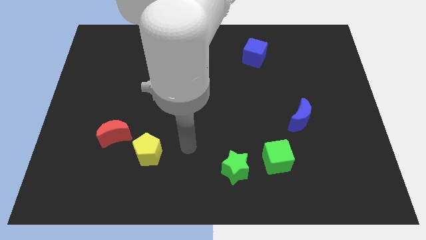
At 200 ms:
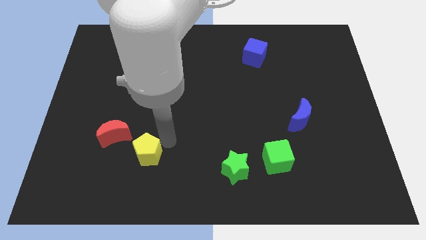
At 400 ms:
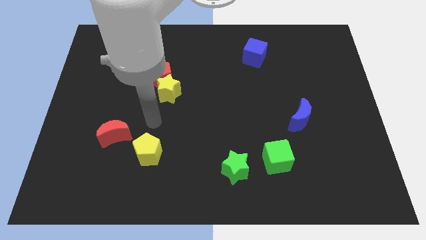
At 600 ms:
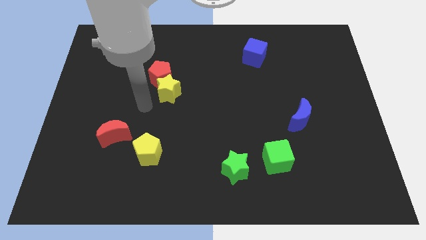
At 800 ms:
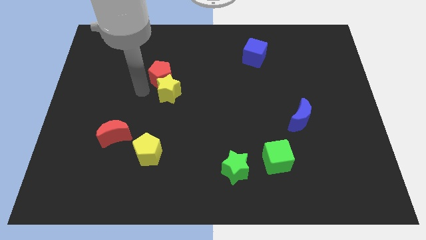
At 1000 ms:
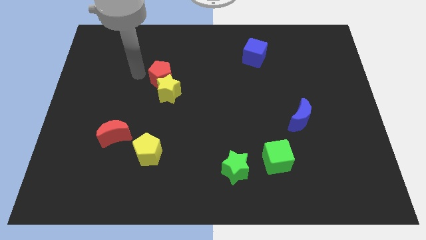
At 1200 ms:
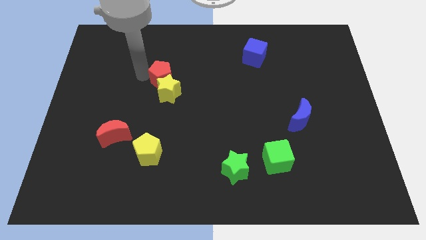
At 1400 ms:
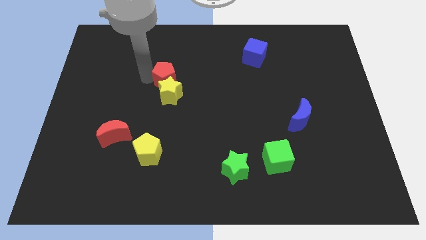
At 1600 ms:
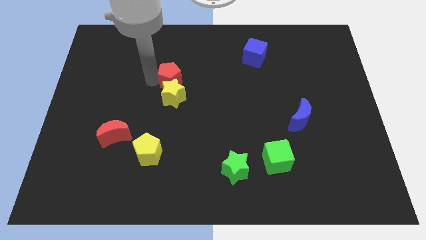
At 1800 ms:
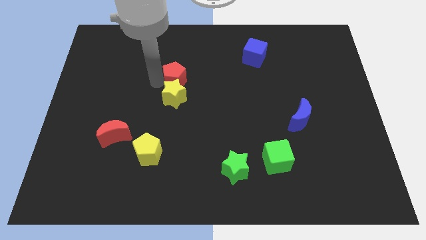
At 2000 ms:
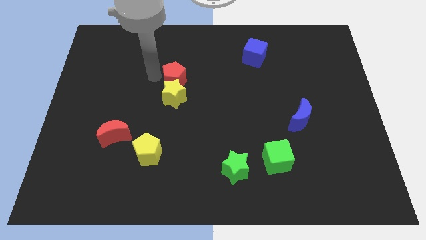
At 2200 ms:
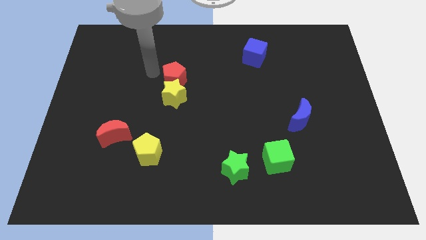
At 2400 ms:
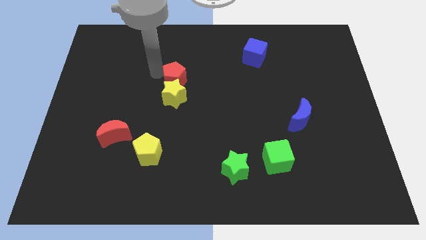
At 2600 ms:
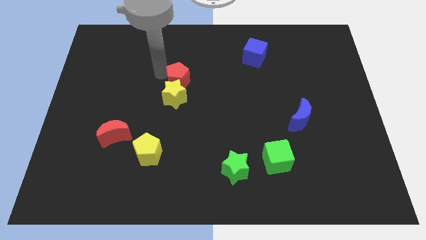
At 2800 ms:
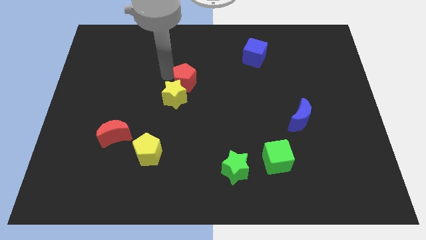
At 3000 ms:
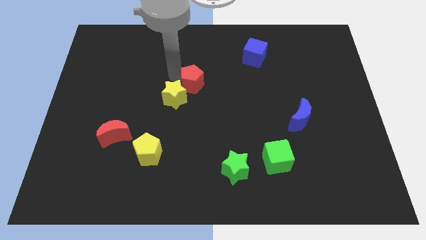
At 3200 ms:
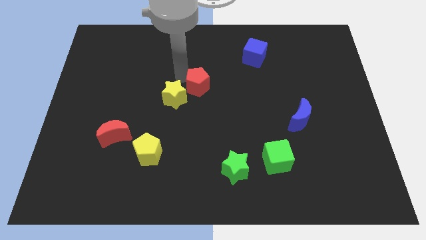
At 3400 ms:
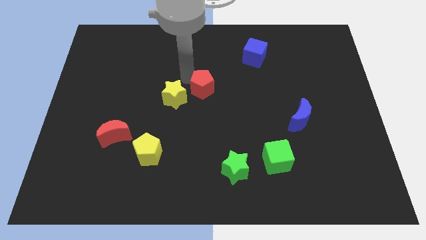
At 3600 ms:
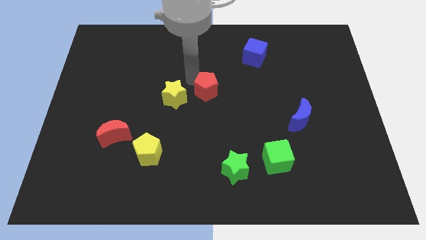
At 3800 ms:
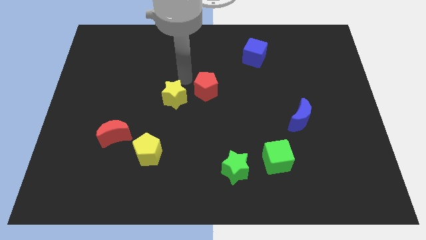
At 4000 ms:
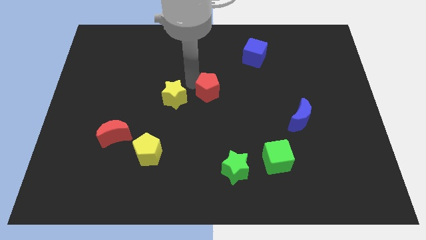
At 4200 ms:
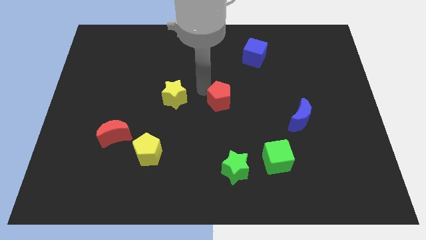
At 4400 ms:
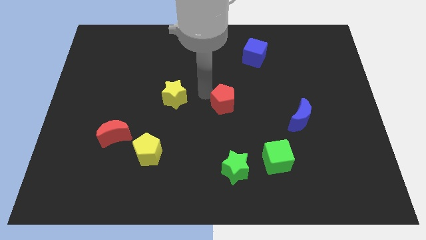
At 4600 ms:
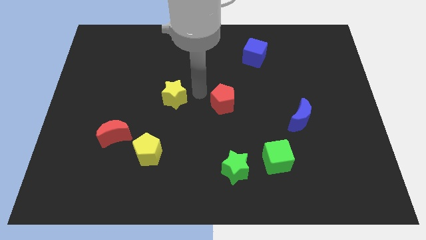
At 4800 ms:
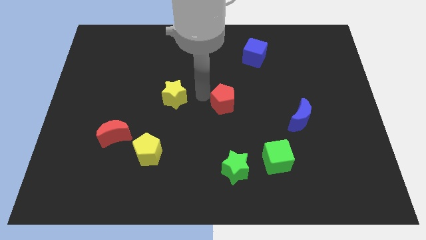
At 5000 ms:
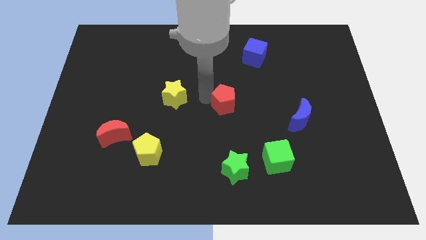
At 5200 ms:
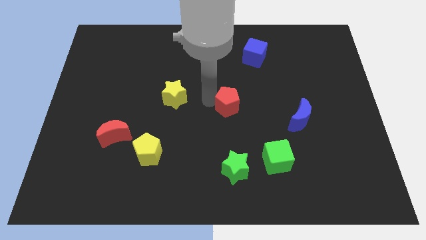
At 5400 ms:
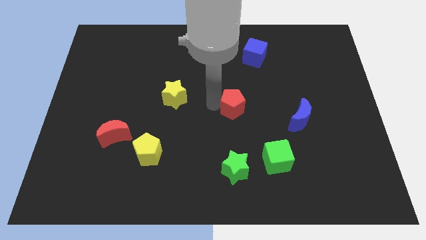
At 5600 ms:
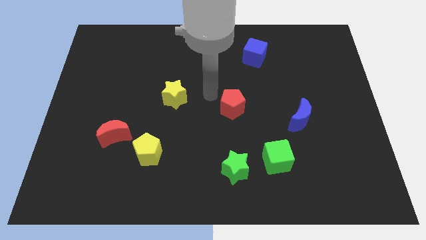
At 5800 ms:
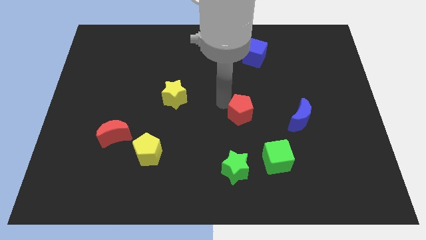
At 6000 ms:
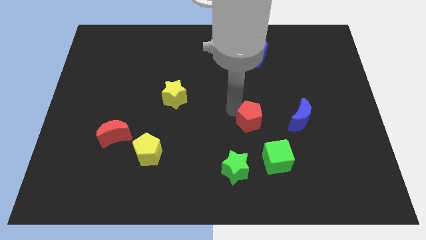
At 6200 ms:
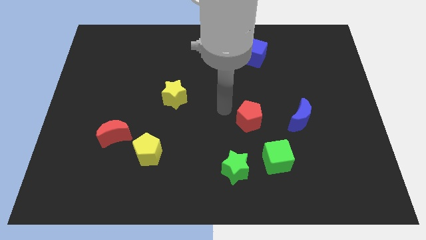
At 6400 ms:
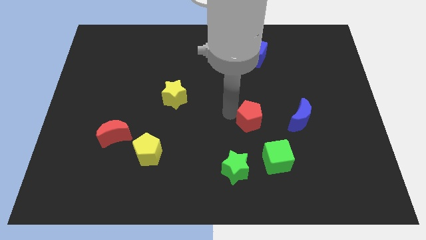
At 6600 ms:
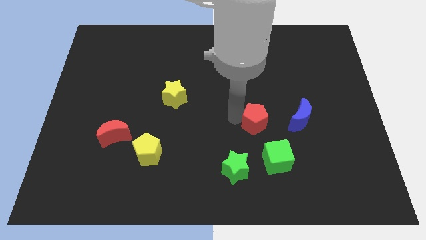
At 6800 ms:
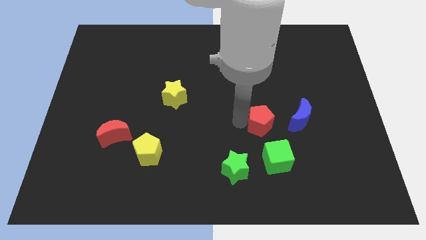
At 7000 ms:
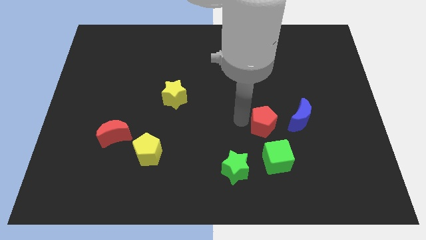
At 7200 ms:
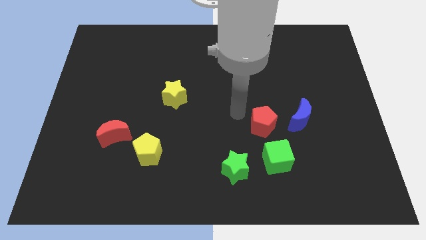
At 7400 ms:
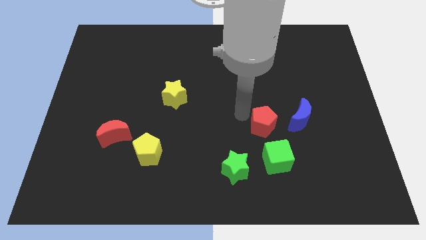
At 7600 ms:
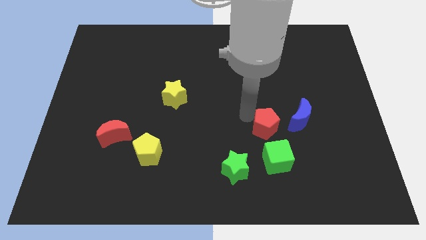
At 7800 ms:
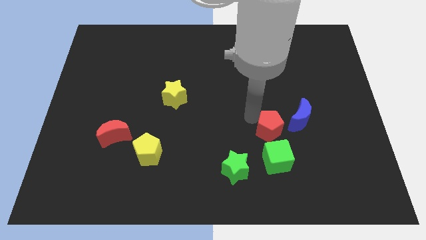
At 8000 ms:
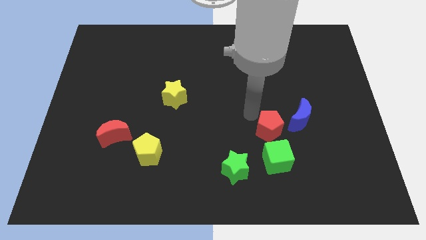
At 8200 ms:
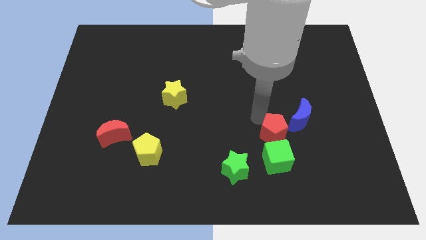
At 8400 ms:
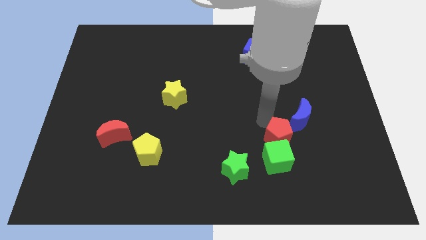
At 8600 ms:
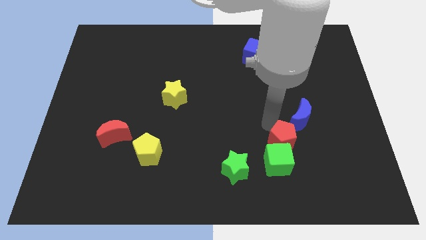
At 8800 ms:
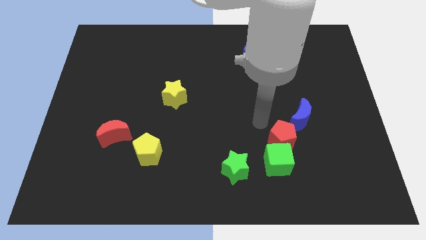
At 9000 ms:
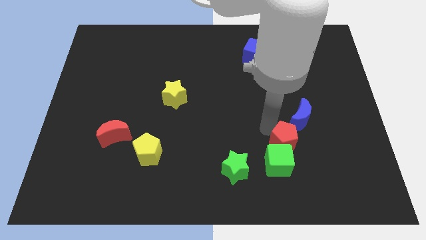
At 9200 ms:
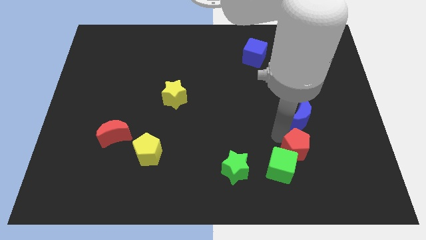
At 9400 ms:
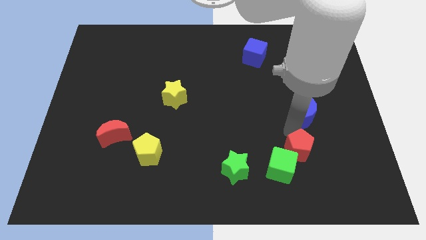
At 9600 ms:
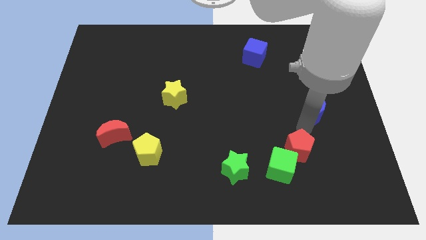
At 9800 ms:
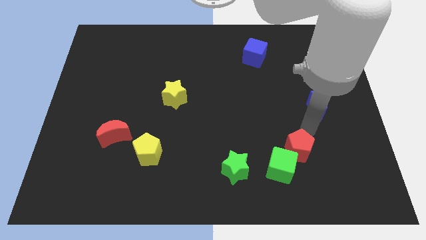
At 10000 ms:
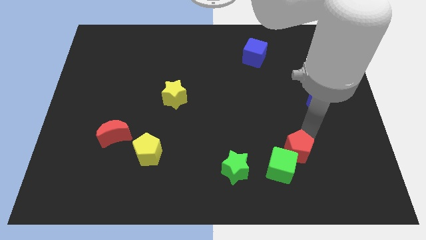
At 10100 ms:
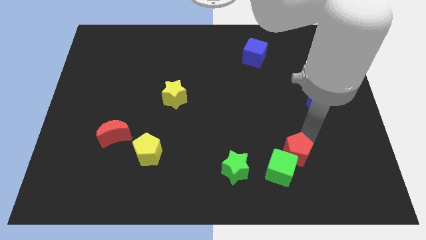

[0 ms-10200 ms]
push the red pentagon just right of the green star

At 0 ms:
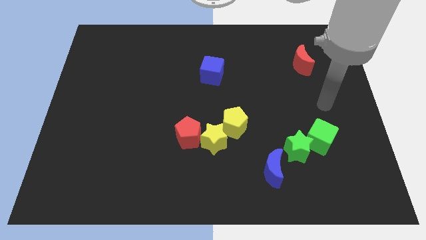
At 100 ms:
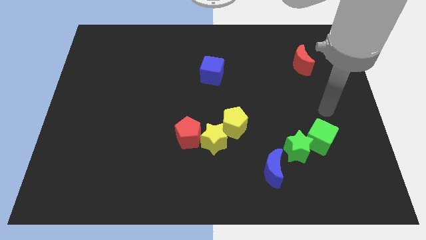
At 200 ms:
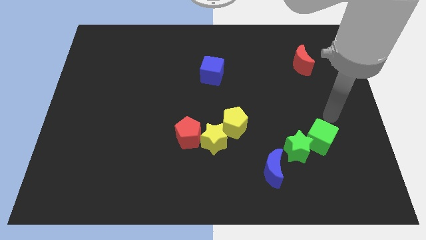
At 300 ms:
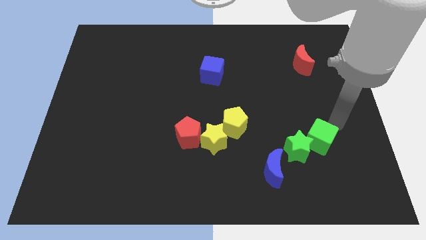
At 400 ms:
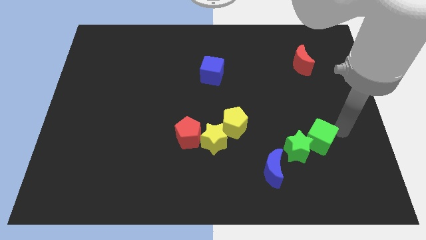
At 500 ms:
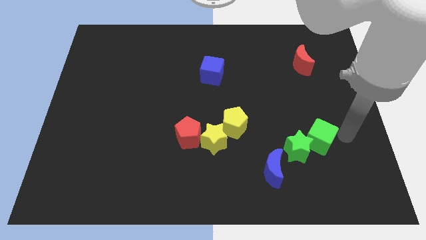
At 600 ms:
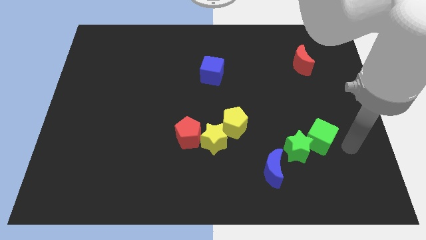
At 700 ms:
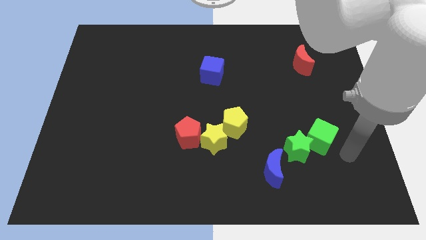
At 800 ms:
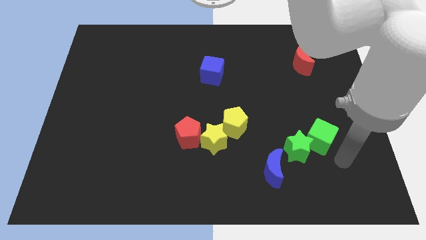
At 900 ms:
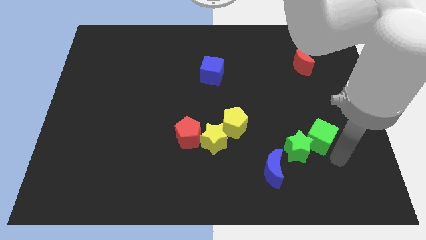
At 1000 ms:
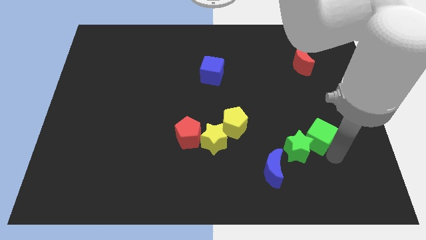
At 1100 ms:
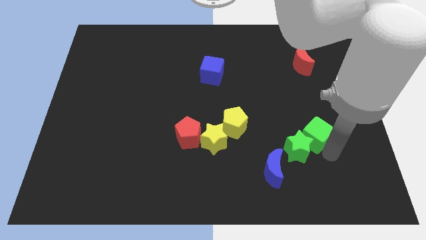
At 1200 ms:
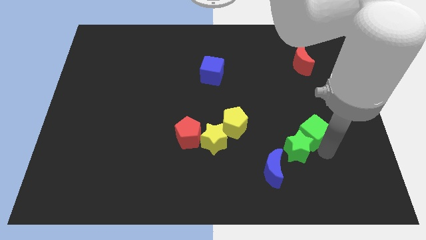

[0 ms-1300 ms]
put the green cube above the green star

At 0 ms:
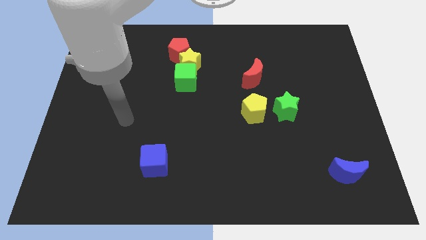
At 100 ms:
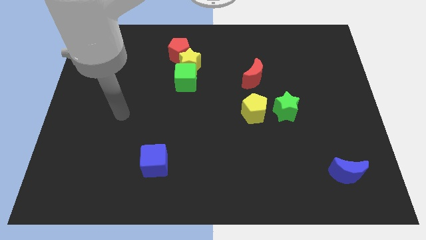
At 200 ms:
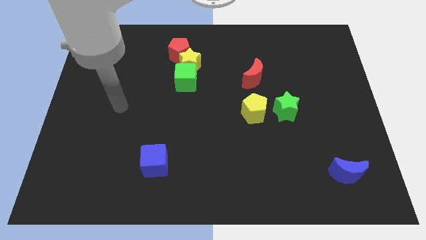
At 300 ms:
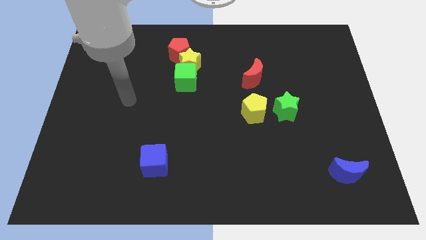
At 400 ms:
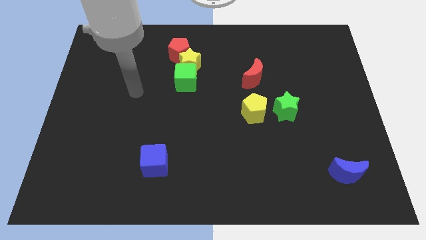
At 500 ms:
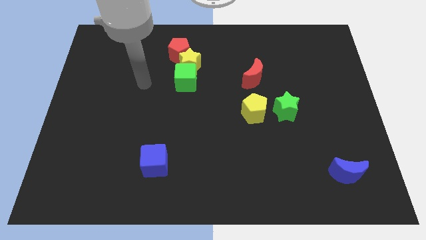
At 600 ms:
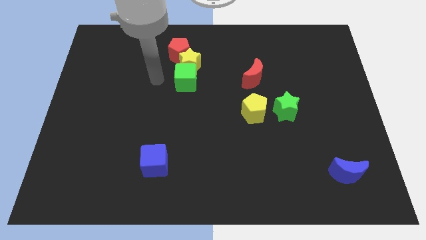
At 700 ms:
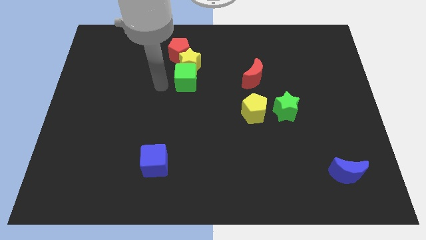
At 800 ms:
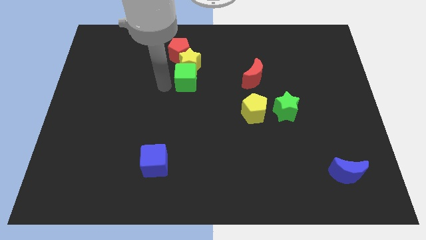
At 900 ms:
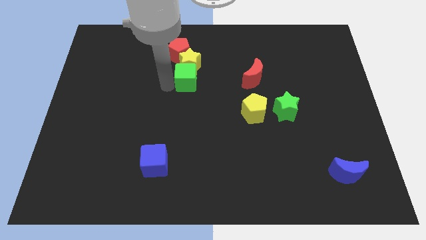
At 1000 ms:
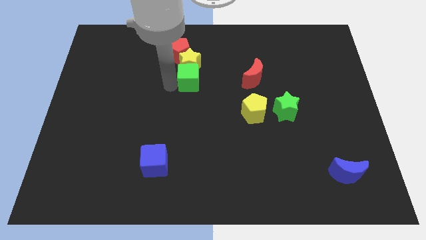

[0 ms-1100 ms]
slide the green cube diagonally down and to the right of the red pentagon

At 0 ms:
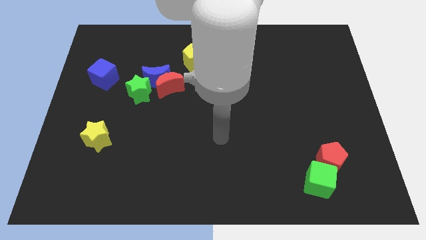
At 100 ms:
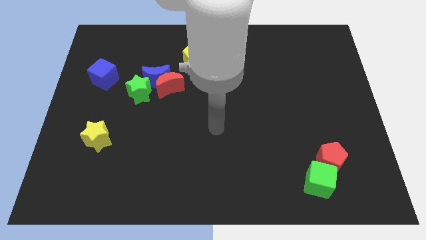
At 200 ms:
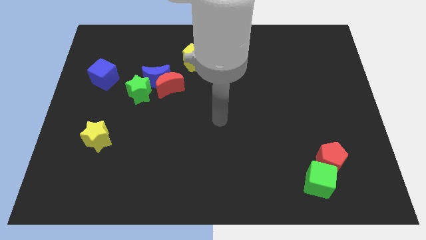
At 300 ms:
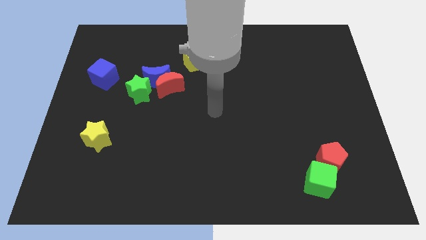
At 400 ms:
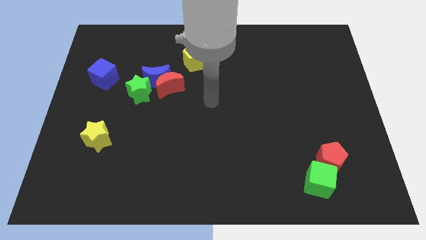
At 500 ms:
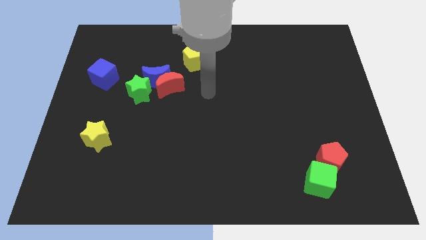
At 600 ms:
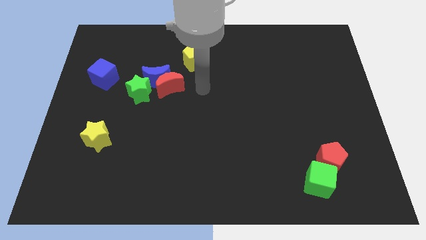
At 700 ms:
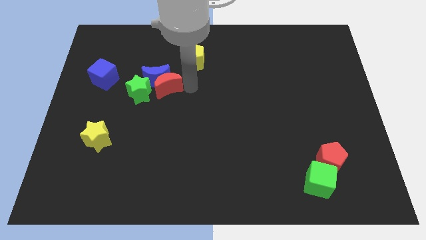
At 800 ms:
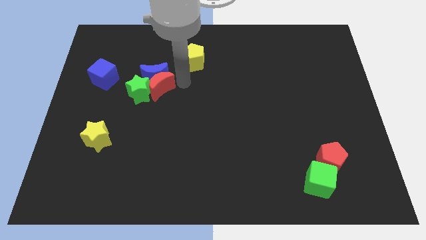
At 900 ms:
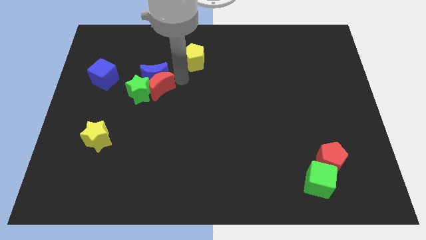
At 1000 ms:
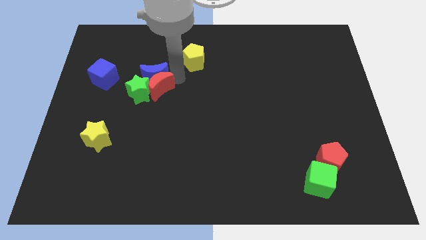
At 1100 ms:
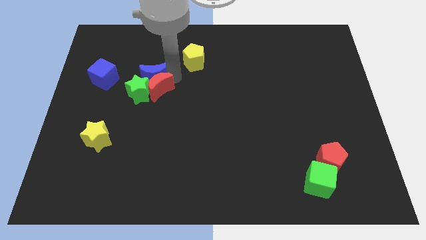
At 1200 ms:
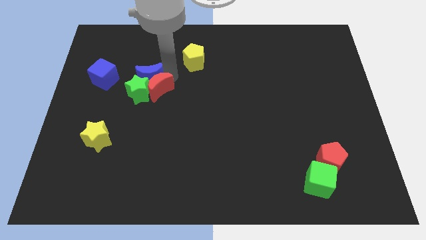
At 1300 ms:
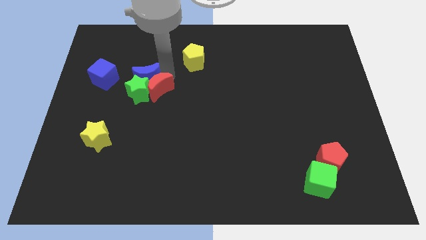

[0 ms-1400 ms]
move the blue moon to the top left side of the green star
